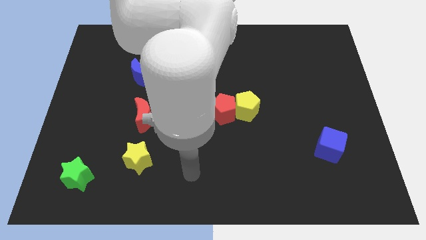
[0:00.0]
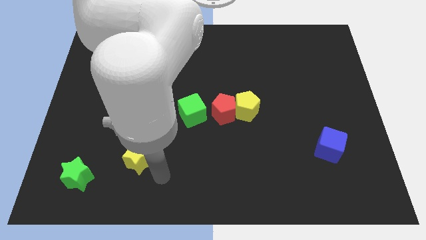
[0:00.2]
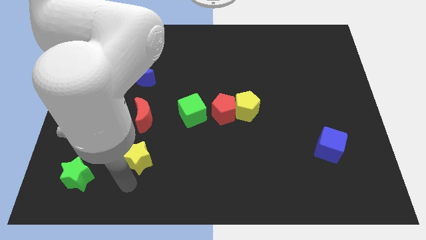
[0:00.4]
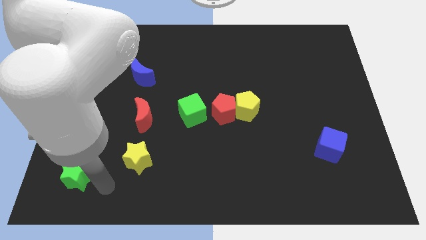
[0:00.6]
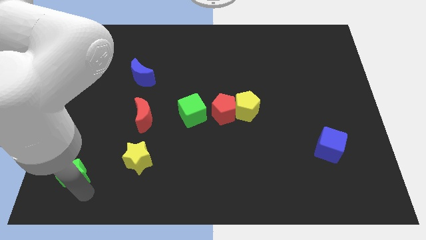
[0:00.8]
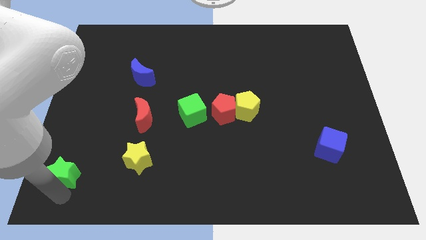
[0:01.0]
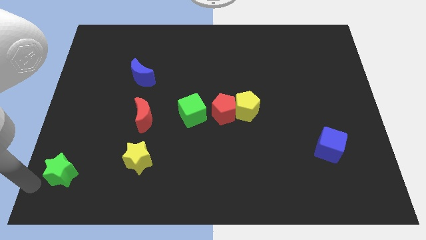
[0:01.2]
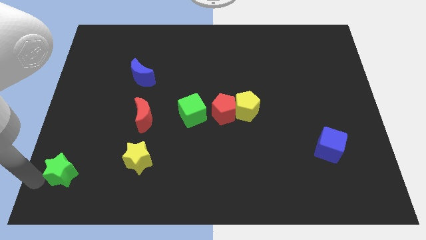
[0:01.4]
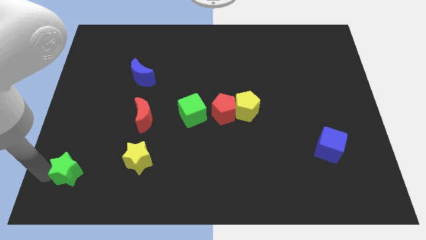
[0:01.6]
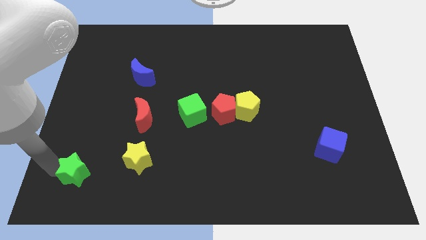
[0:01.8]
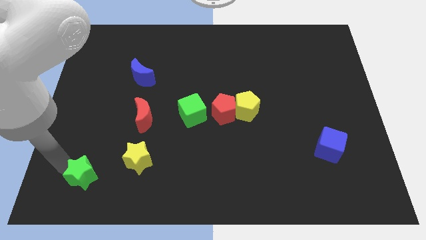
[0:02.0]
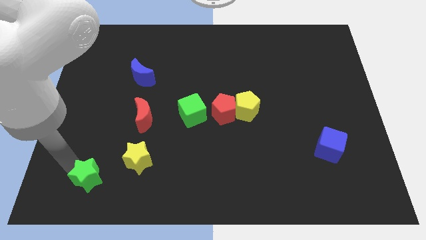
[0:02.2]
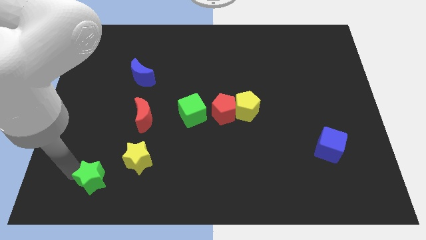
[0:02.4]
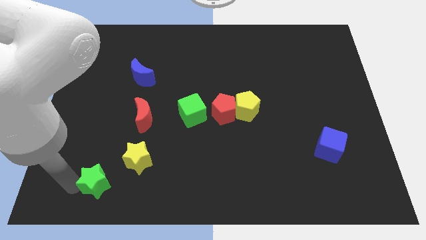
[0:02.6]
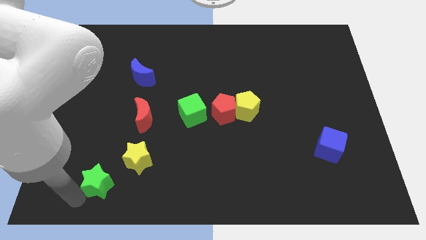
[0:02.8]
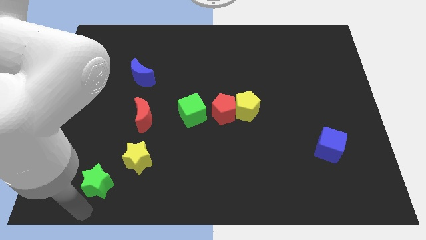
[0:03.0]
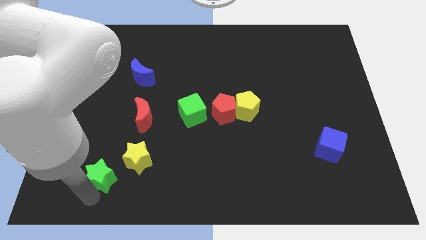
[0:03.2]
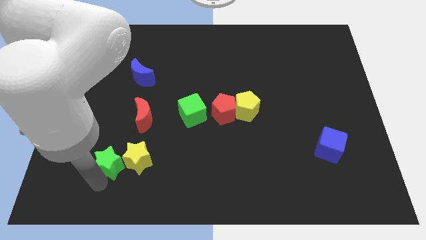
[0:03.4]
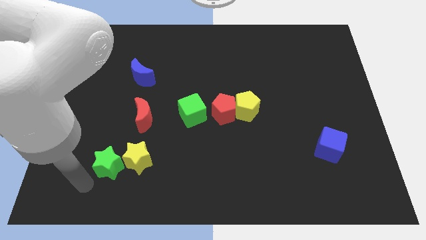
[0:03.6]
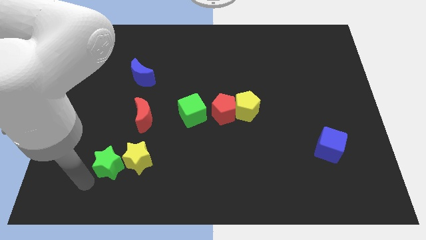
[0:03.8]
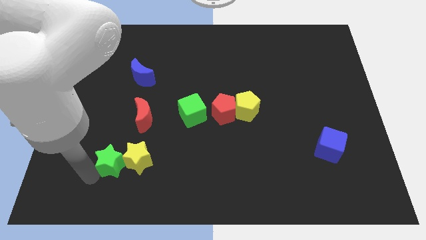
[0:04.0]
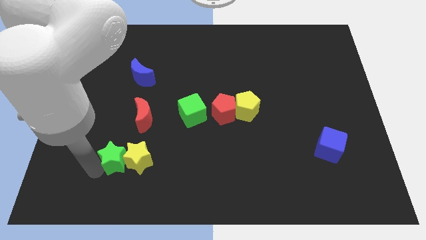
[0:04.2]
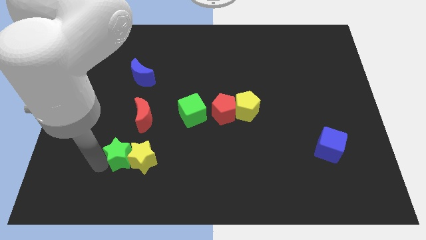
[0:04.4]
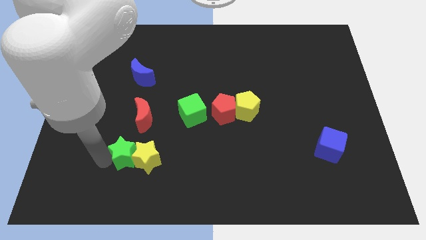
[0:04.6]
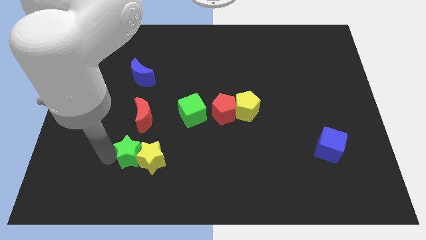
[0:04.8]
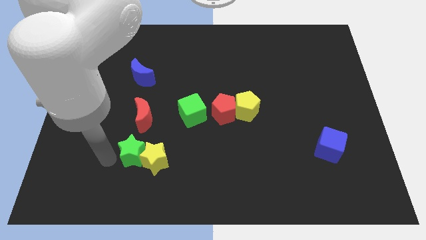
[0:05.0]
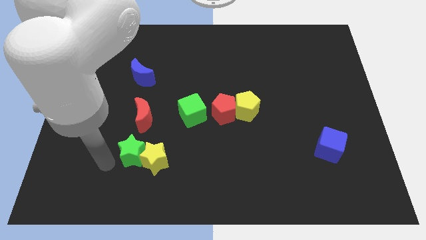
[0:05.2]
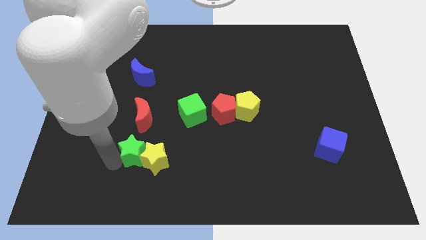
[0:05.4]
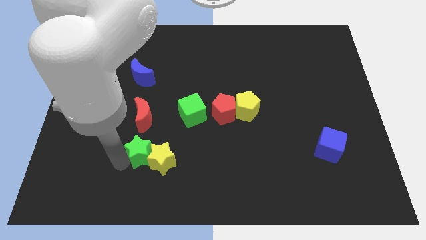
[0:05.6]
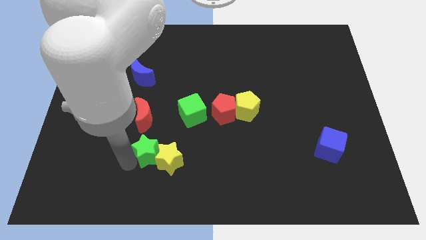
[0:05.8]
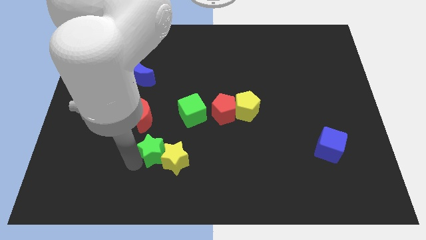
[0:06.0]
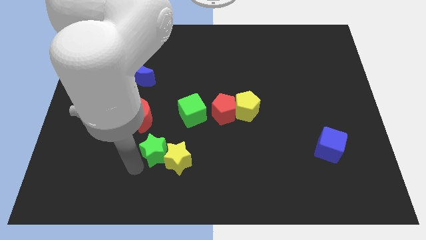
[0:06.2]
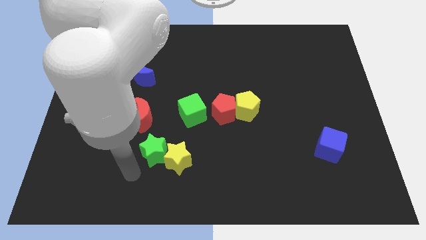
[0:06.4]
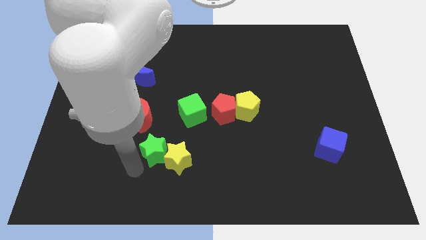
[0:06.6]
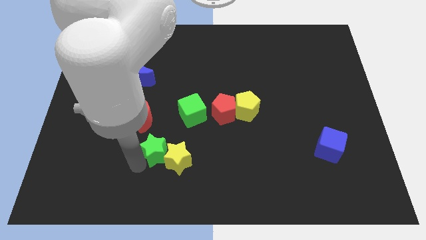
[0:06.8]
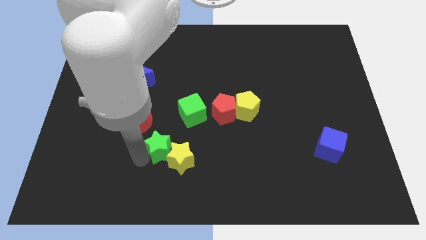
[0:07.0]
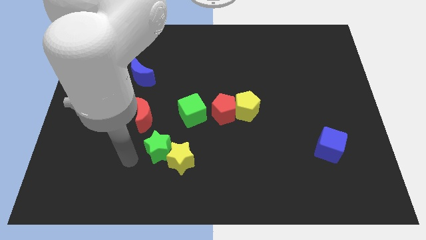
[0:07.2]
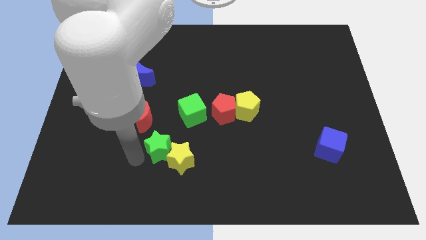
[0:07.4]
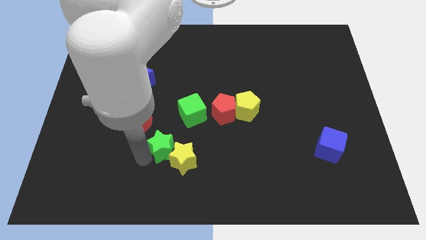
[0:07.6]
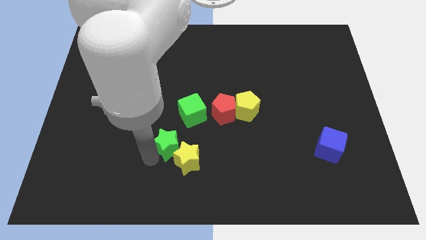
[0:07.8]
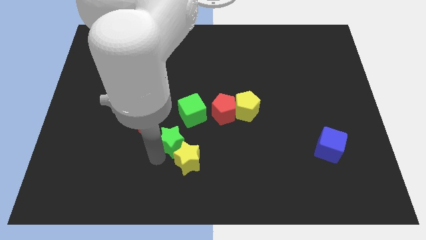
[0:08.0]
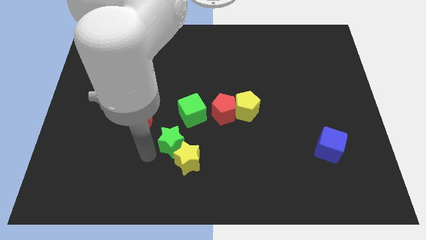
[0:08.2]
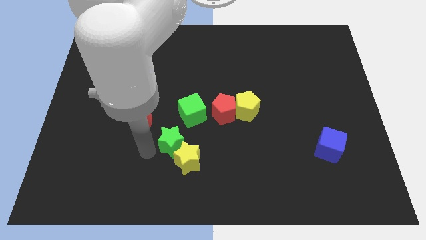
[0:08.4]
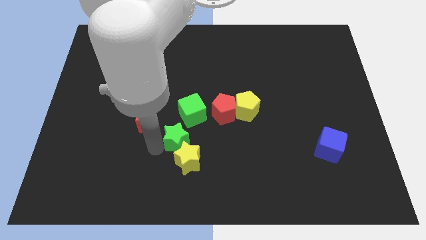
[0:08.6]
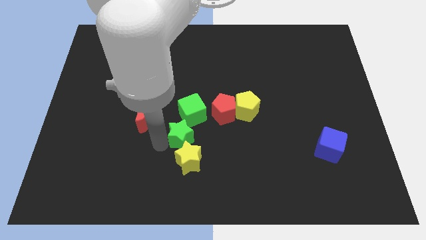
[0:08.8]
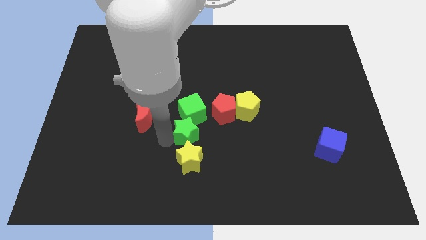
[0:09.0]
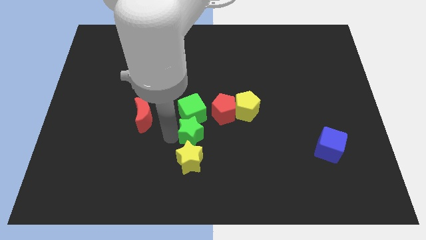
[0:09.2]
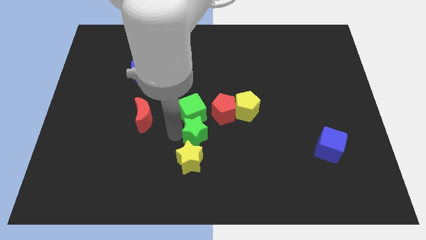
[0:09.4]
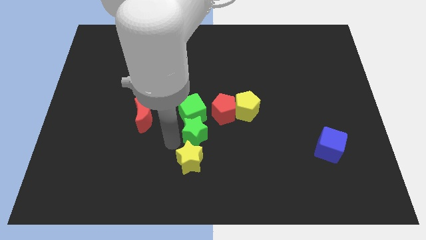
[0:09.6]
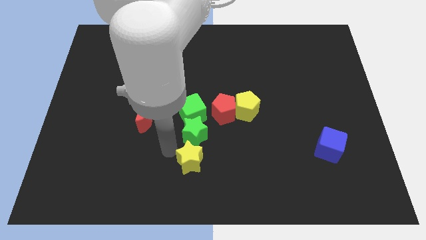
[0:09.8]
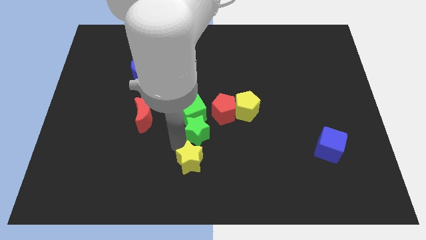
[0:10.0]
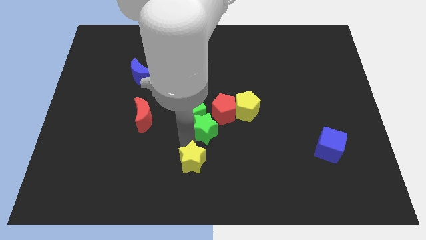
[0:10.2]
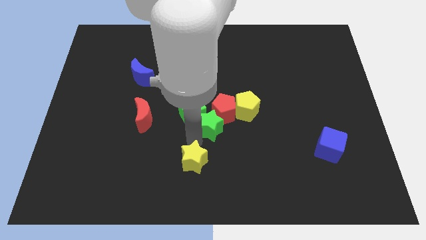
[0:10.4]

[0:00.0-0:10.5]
move the green star close to the red pentagon
